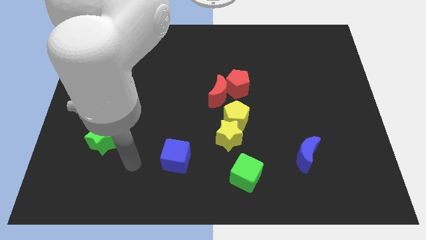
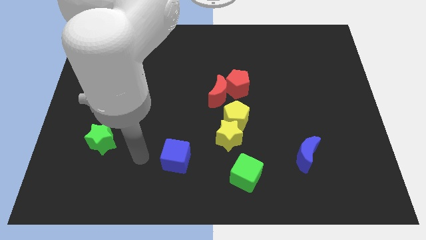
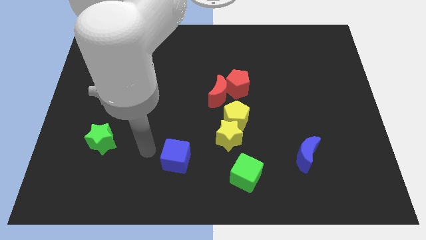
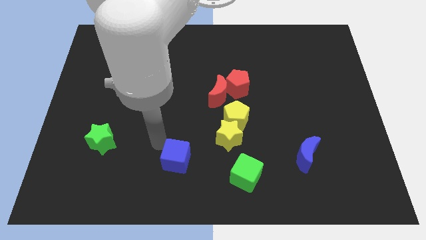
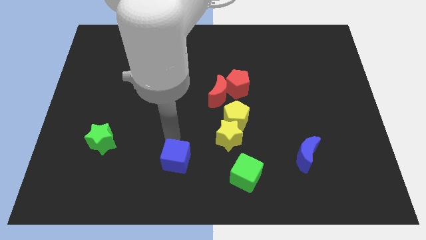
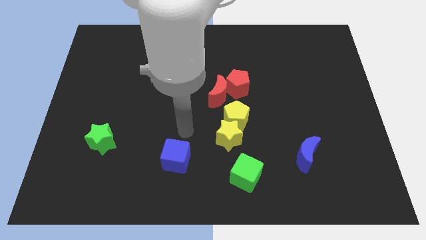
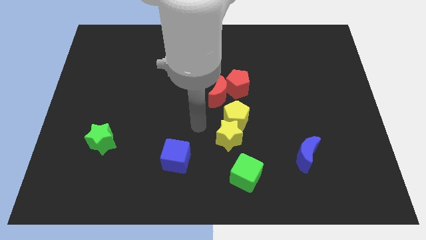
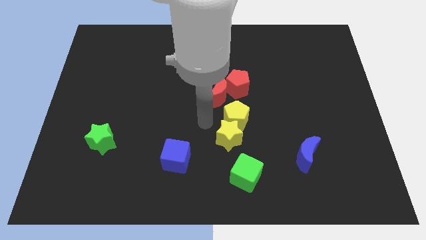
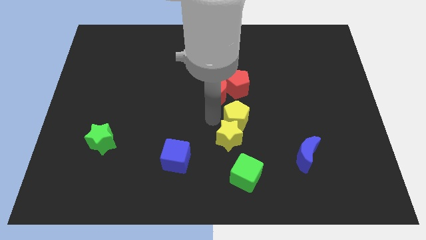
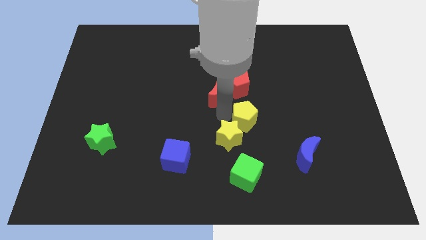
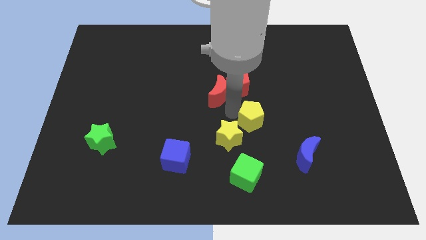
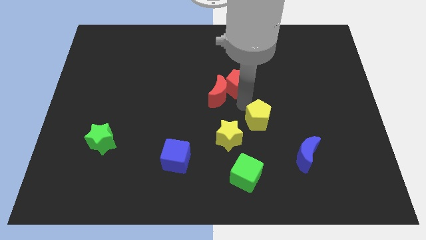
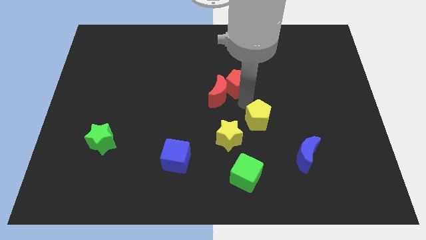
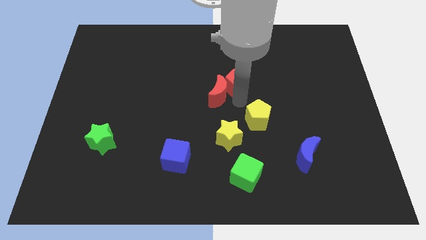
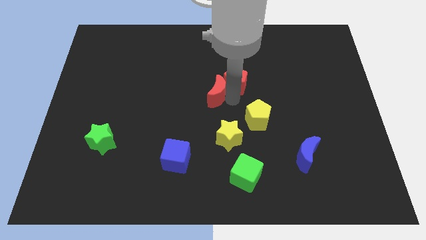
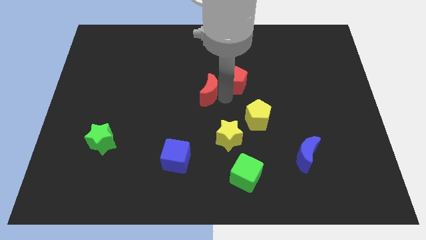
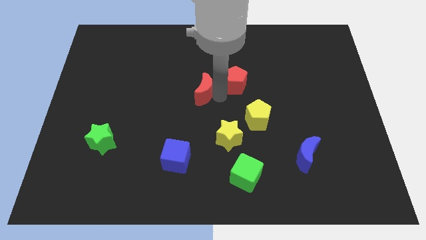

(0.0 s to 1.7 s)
move the red moon away from the red pentagon and yellow pentagon

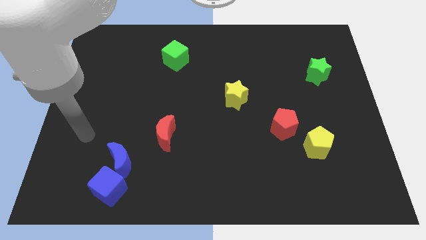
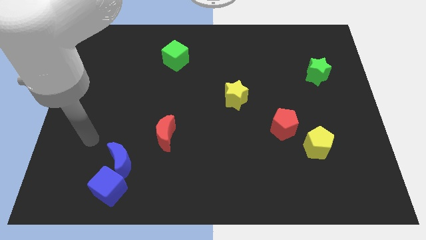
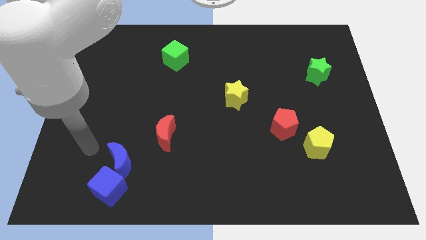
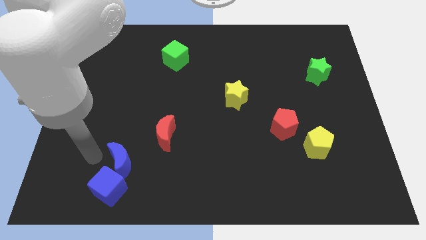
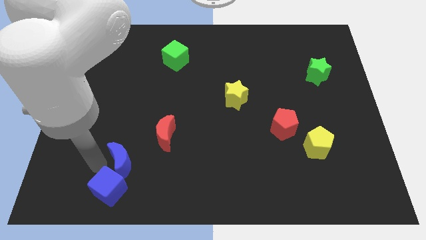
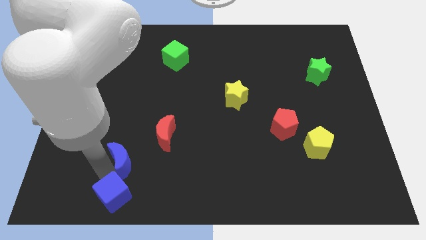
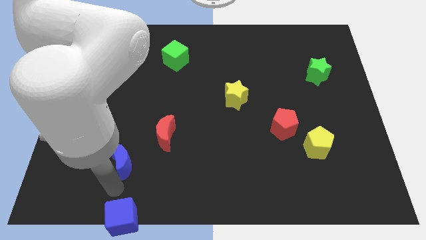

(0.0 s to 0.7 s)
move the blue moon away from the blue cube

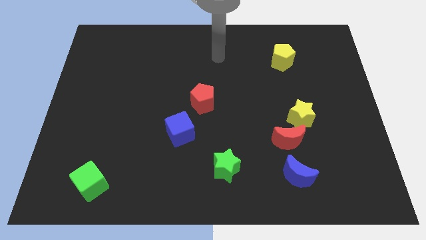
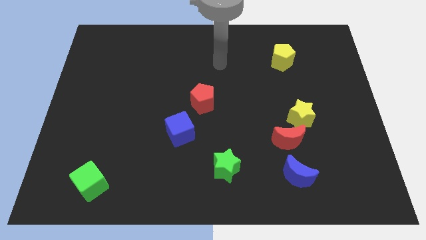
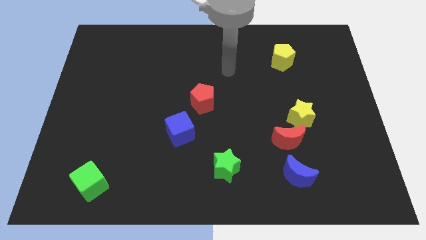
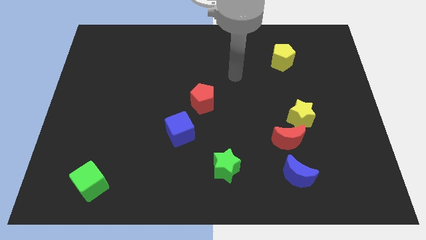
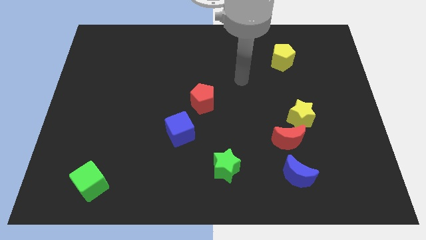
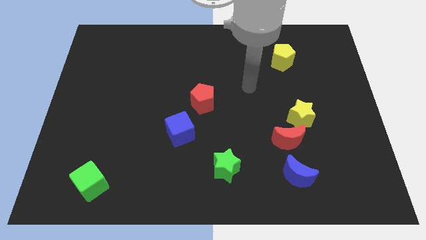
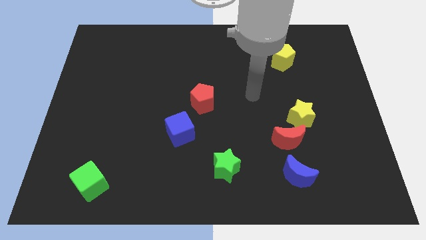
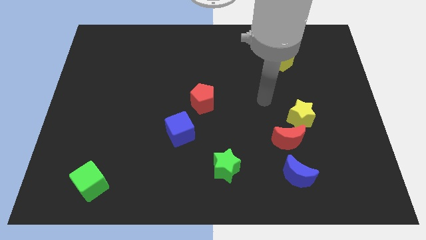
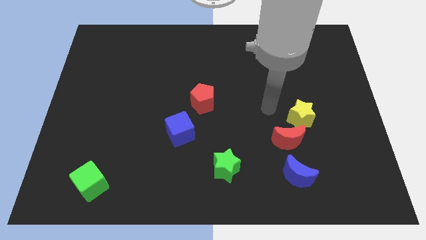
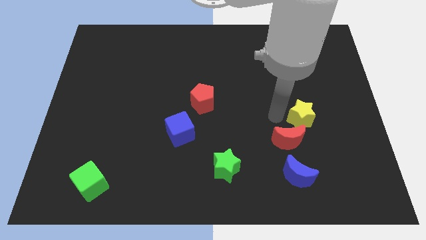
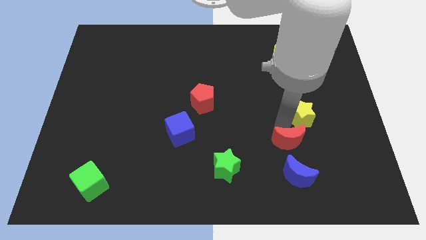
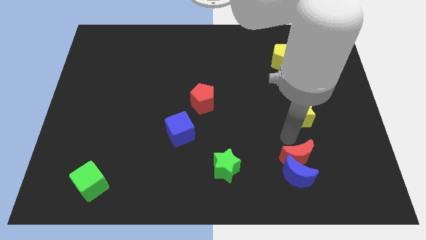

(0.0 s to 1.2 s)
move the yellow star away from the red moon

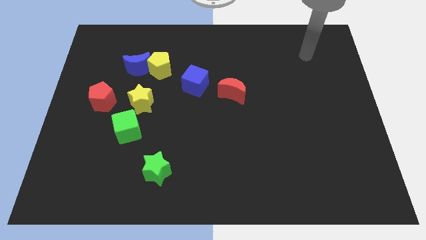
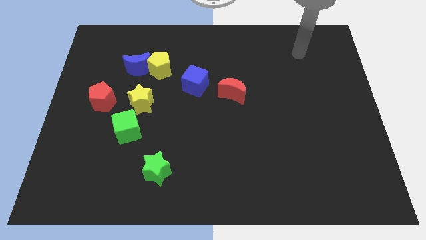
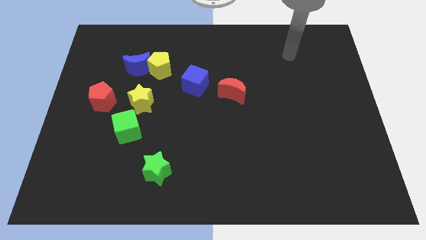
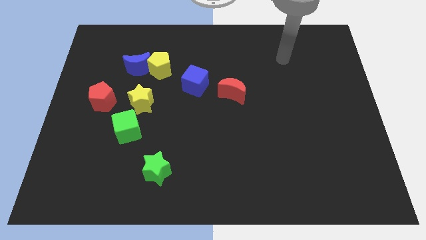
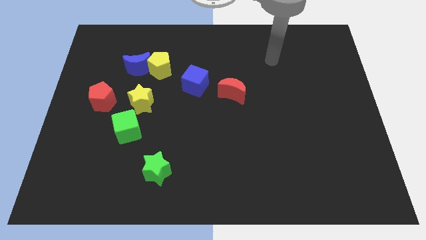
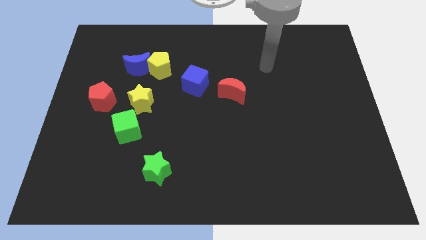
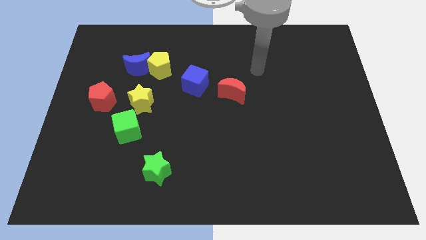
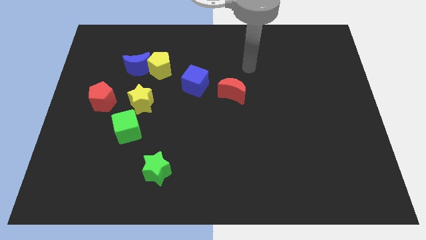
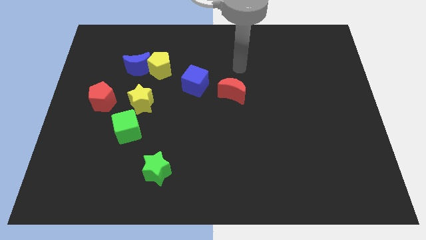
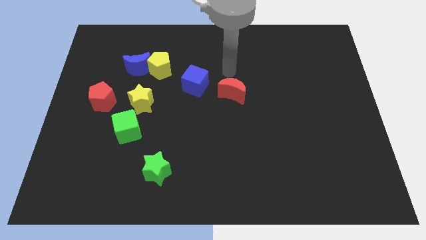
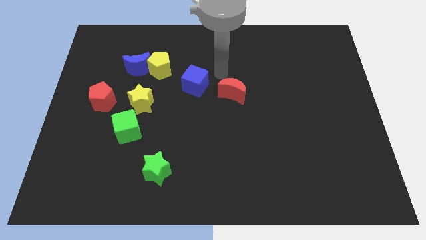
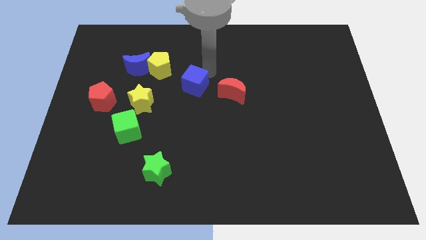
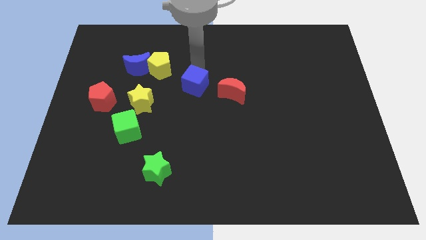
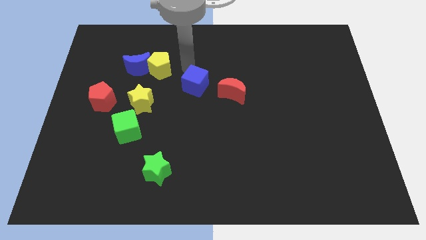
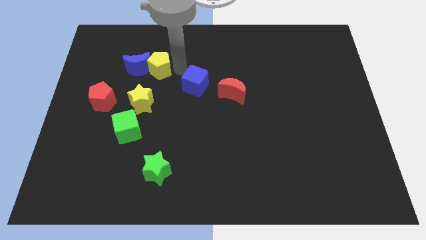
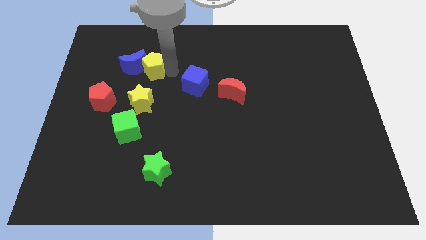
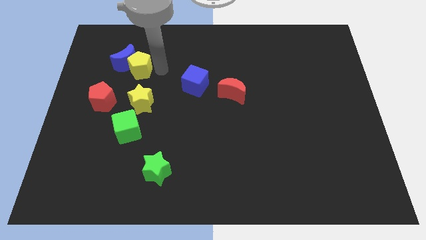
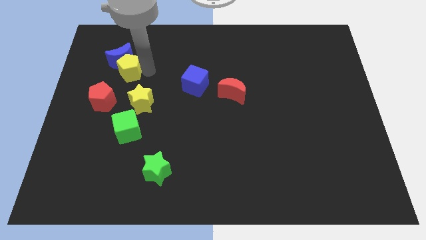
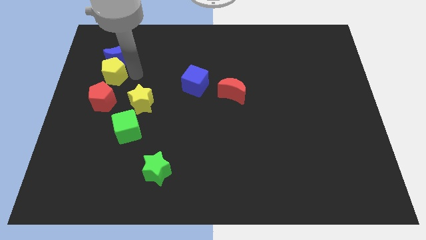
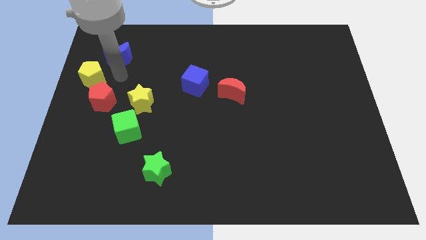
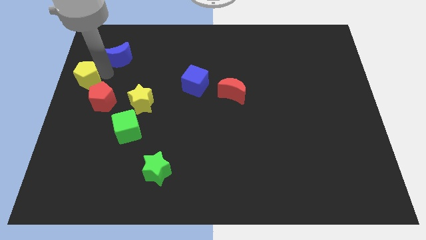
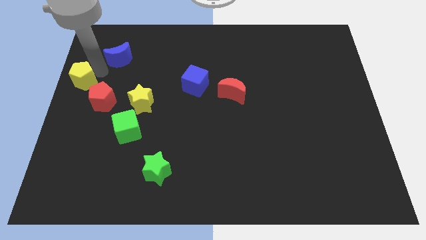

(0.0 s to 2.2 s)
pull the blue moon apart from the yellow pentagon

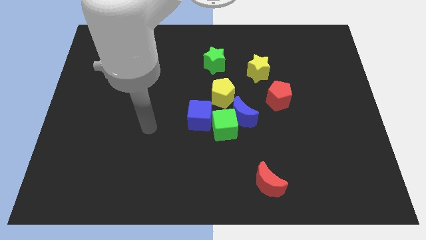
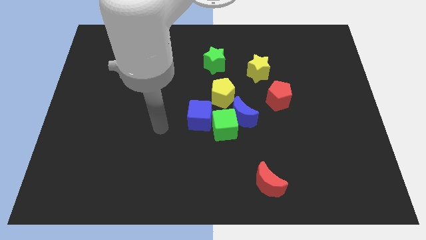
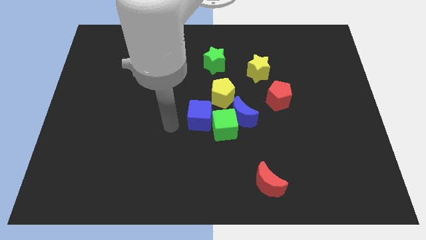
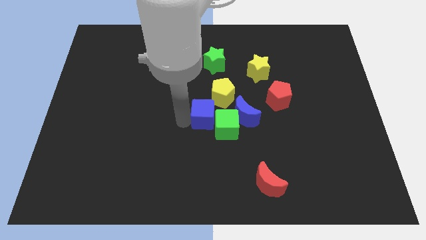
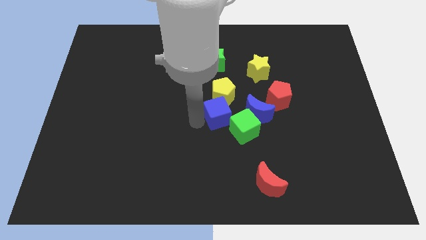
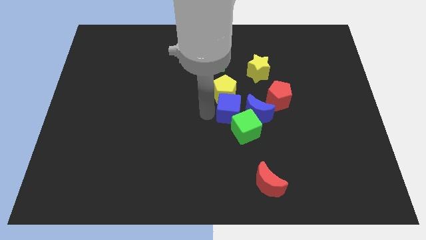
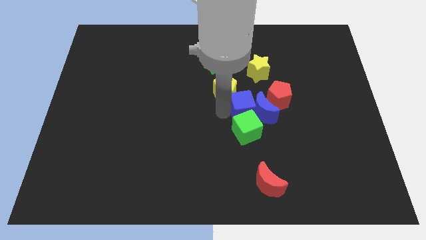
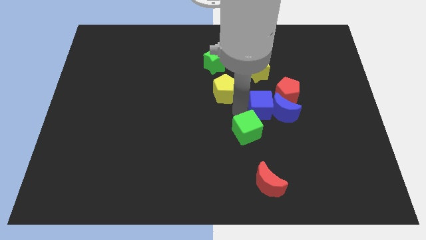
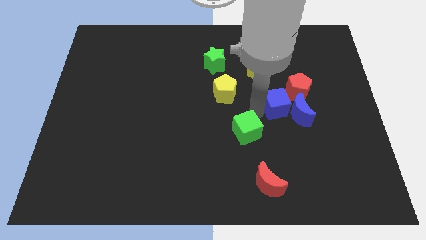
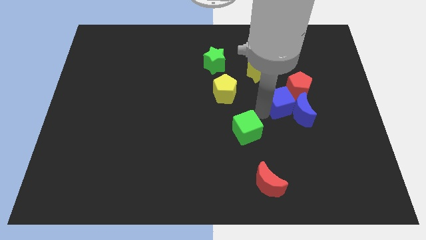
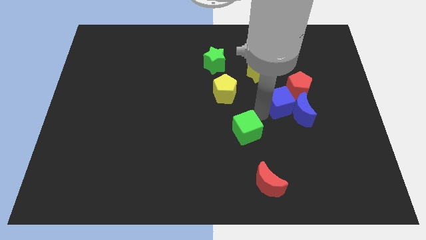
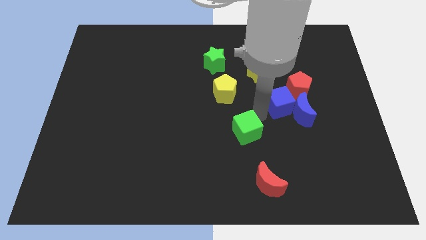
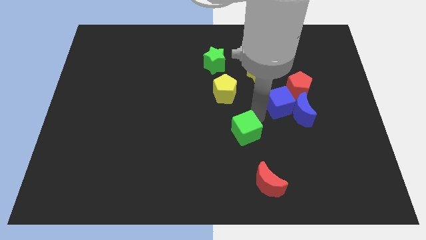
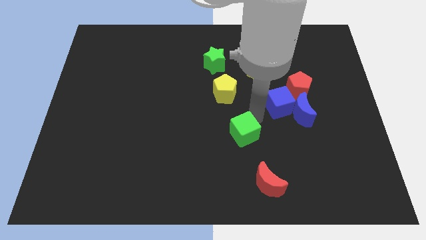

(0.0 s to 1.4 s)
move the green cube away from the blue moon, blue cube, and yellow pentagon

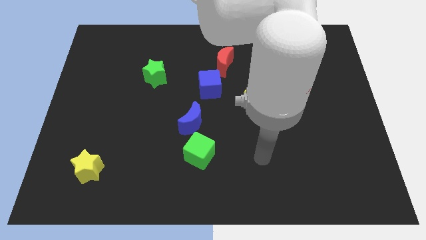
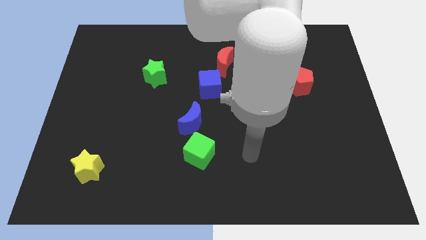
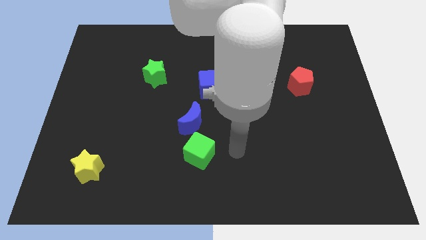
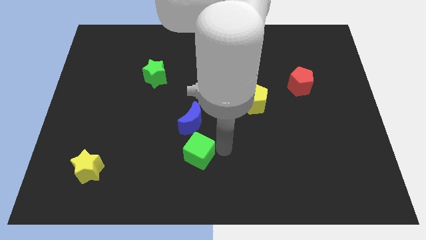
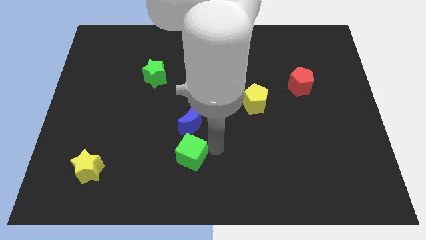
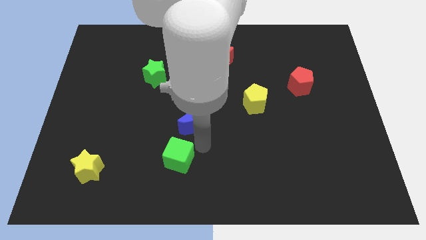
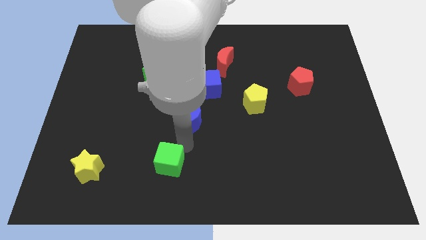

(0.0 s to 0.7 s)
pull the blue moon apart from the green cube

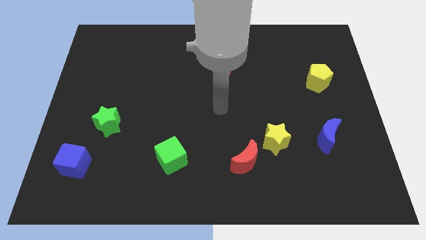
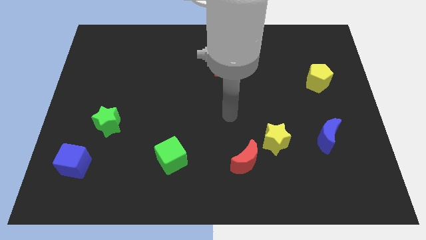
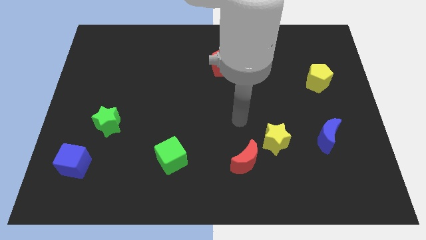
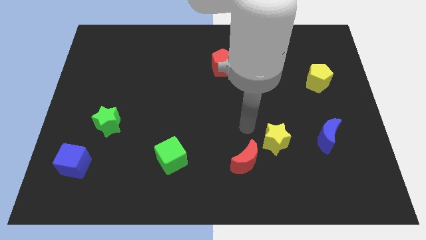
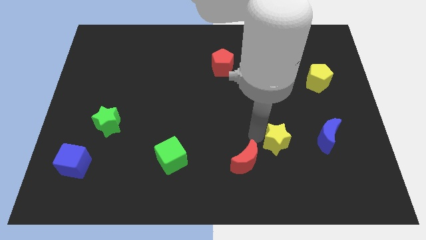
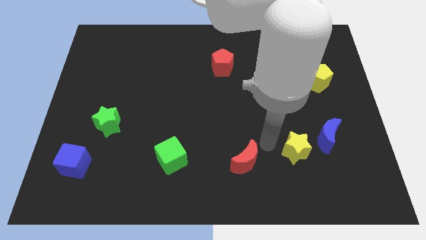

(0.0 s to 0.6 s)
move the red moon away from the yellow star

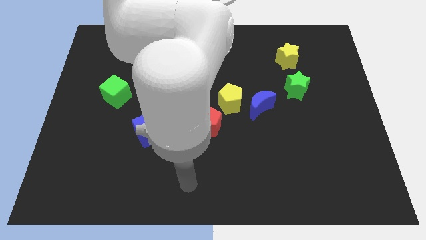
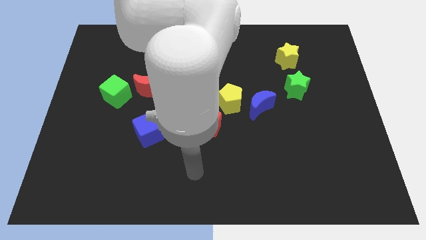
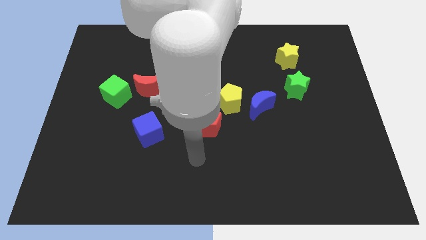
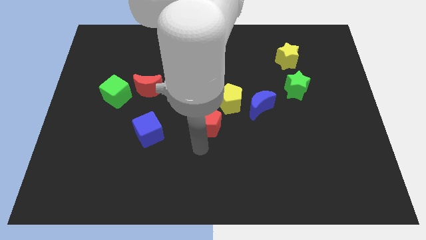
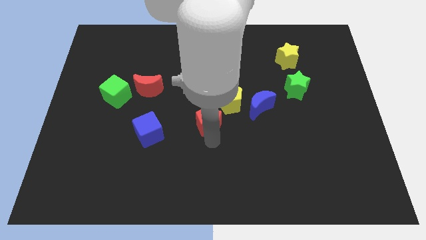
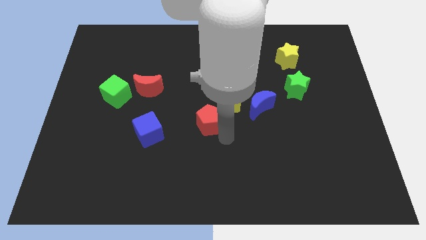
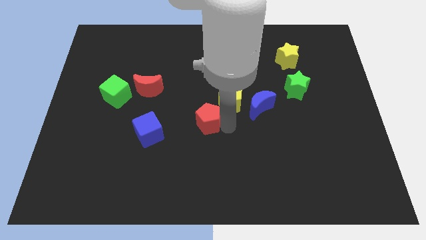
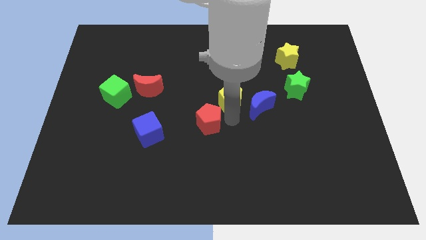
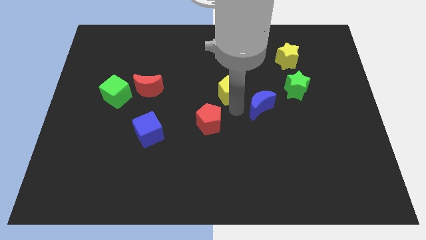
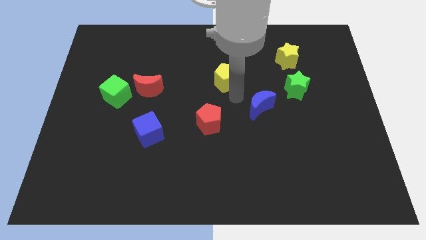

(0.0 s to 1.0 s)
separate the blue moon from the yellow pentagon
